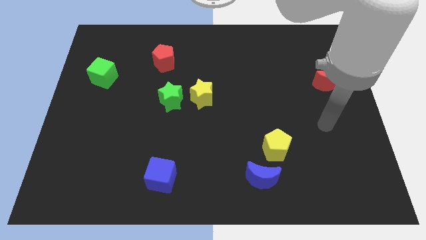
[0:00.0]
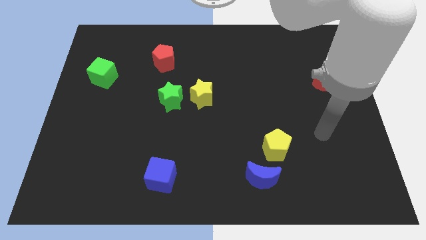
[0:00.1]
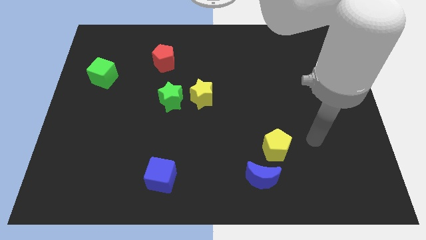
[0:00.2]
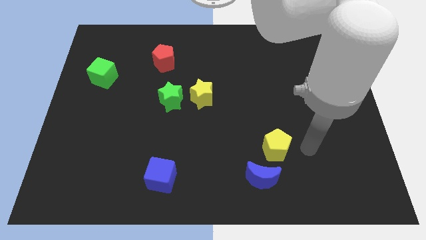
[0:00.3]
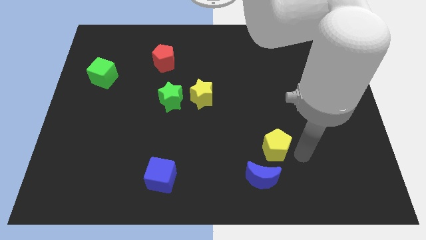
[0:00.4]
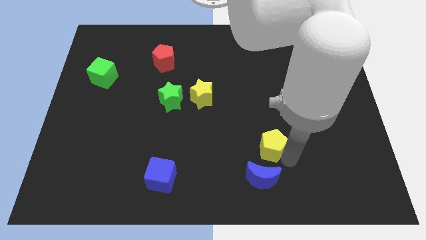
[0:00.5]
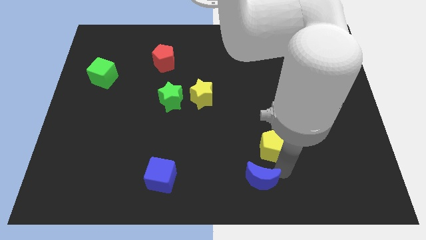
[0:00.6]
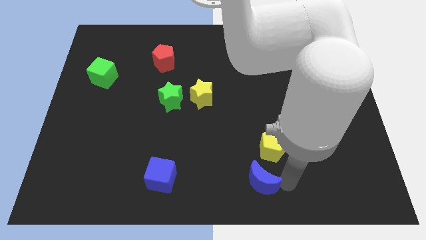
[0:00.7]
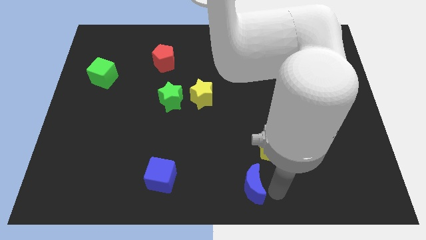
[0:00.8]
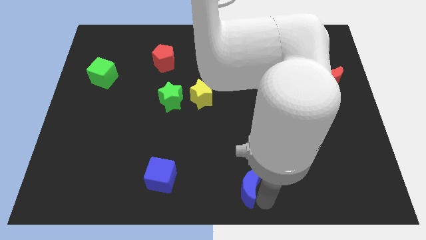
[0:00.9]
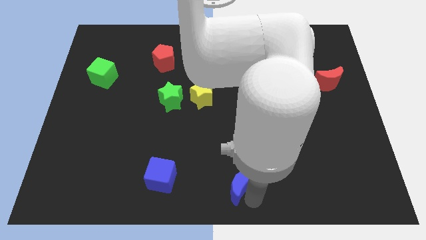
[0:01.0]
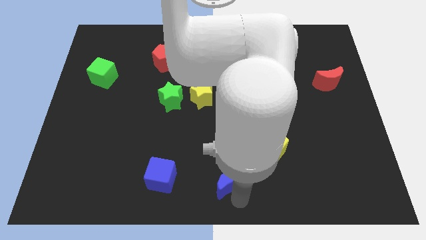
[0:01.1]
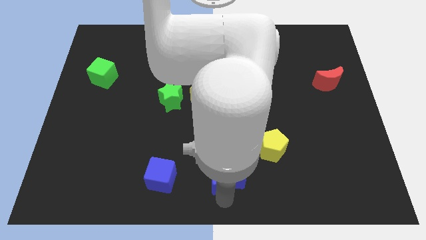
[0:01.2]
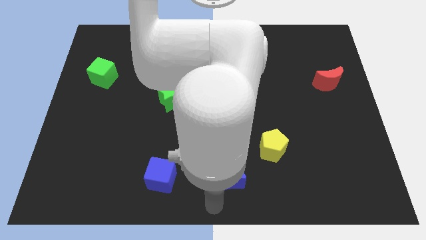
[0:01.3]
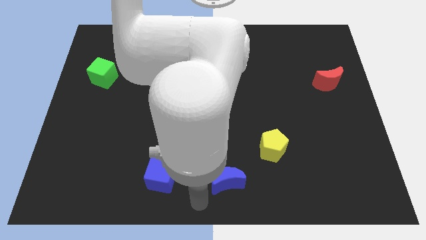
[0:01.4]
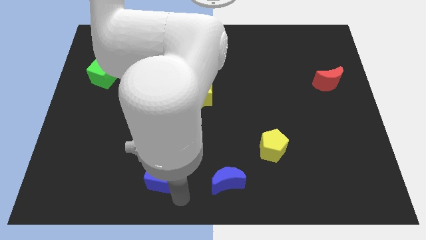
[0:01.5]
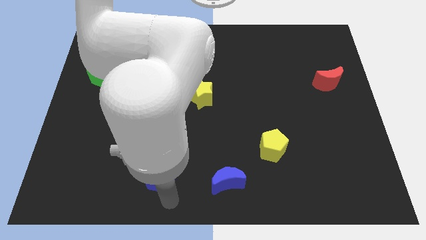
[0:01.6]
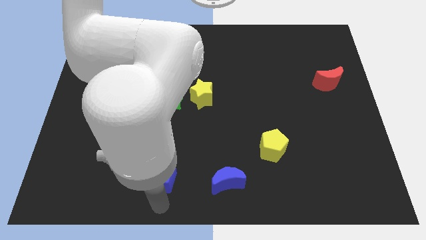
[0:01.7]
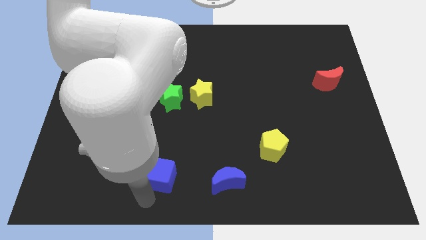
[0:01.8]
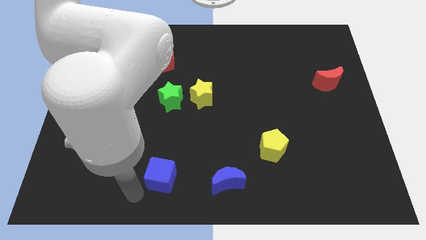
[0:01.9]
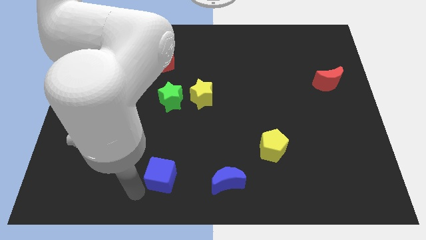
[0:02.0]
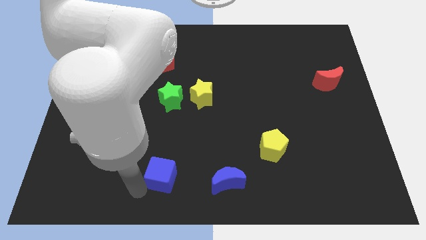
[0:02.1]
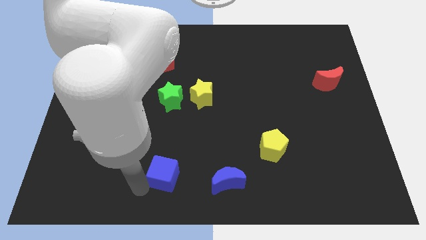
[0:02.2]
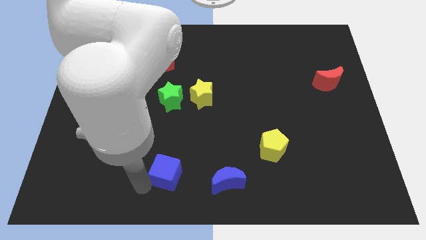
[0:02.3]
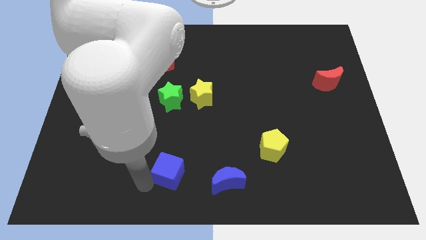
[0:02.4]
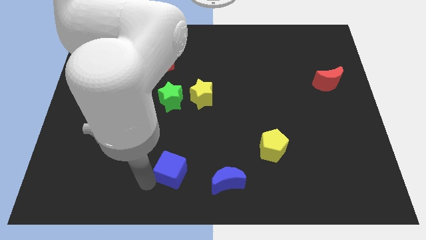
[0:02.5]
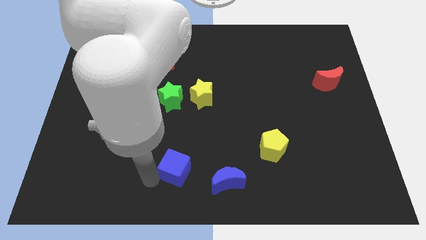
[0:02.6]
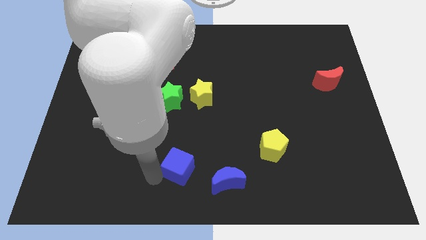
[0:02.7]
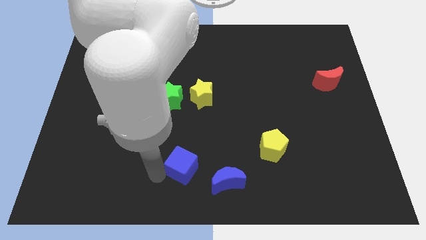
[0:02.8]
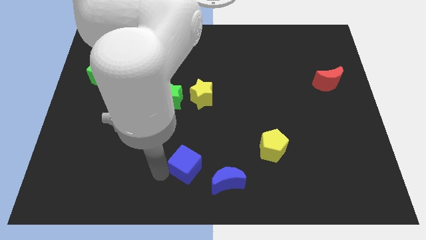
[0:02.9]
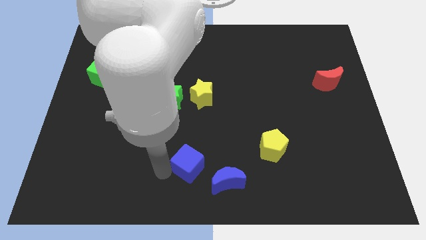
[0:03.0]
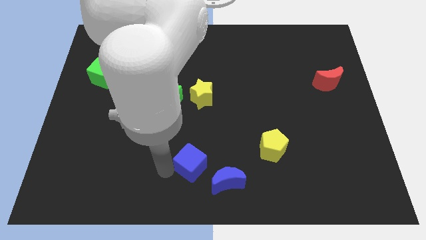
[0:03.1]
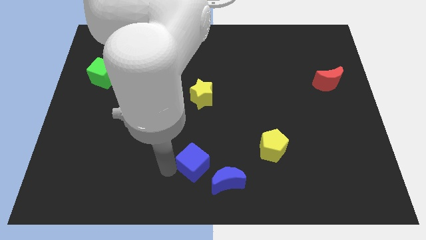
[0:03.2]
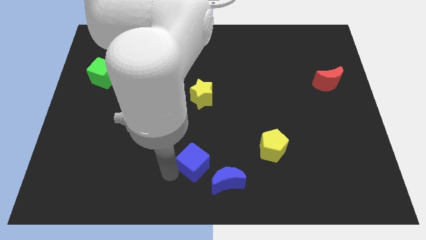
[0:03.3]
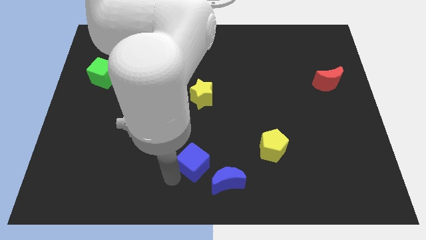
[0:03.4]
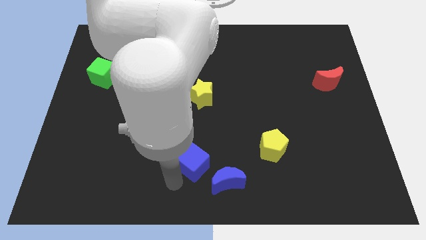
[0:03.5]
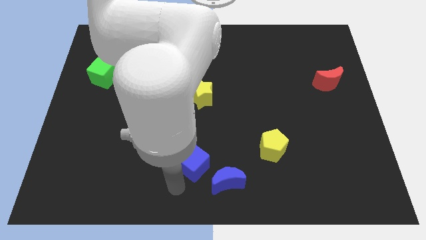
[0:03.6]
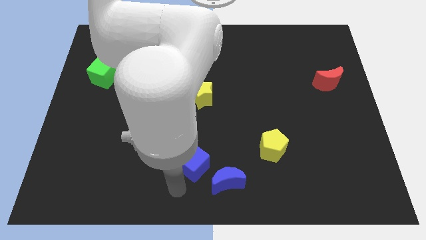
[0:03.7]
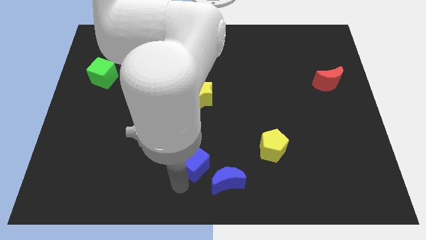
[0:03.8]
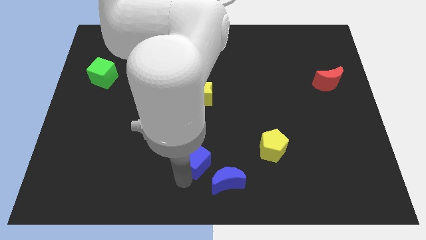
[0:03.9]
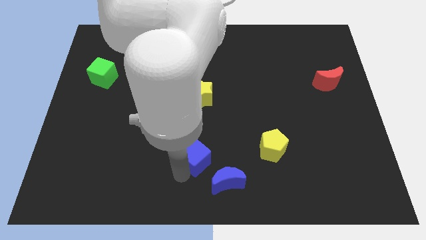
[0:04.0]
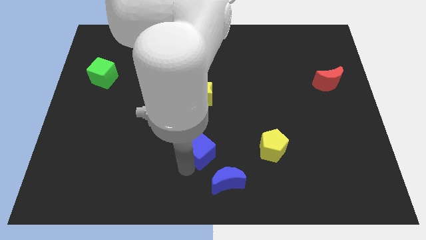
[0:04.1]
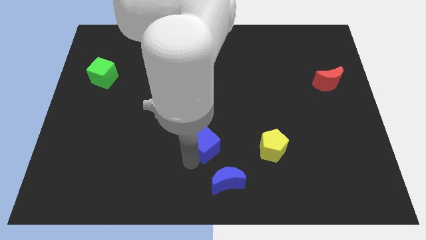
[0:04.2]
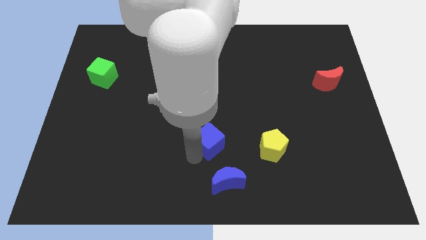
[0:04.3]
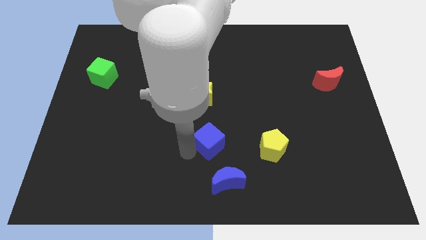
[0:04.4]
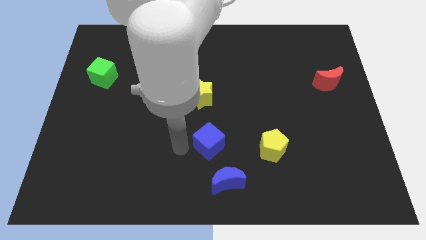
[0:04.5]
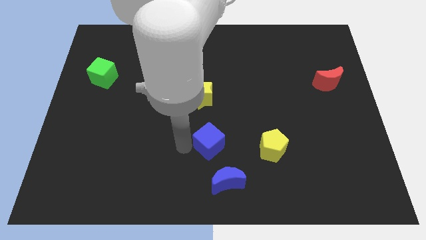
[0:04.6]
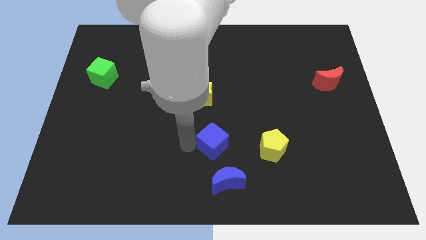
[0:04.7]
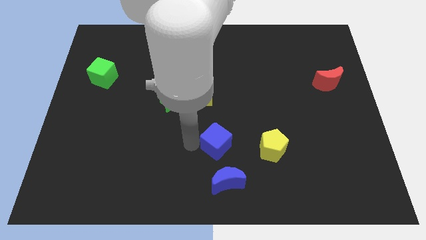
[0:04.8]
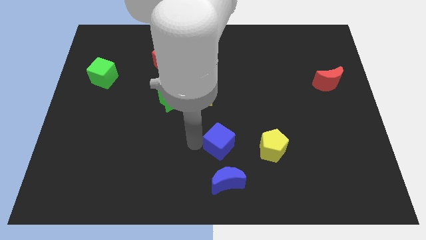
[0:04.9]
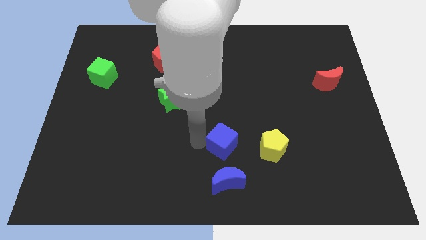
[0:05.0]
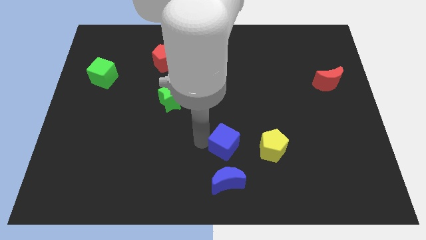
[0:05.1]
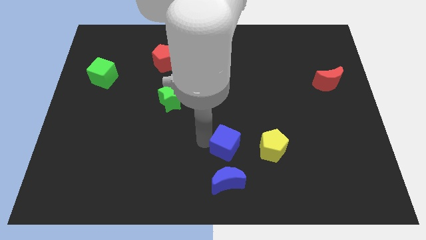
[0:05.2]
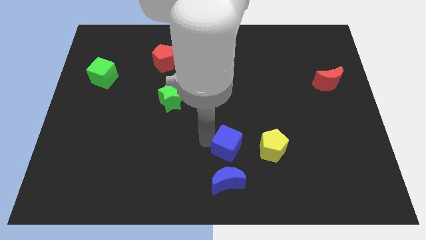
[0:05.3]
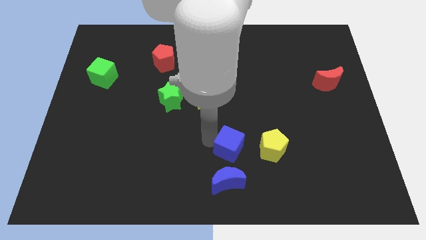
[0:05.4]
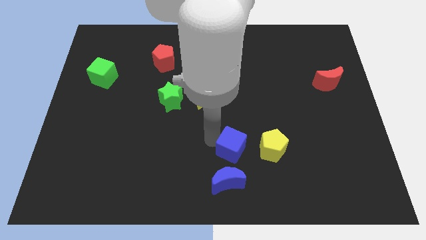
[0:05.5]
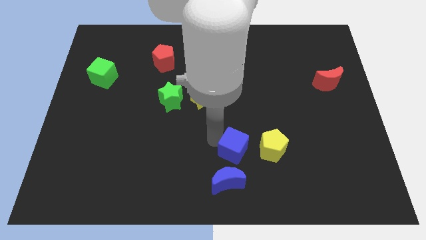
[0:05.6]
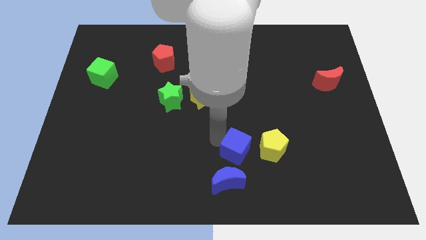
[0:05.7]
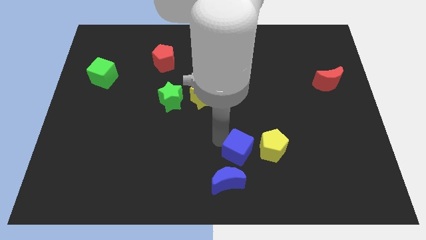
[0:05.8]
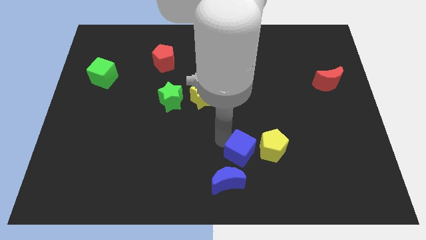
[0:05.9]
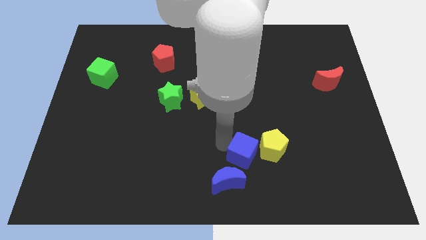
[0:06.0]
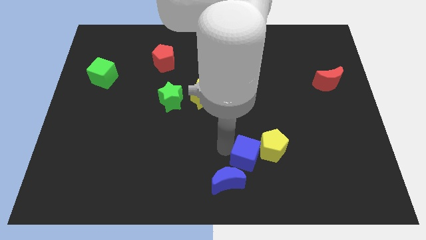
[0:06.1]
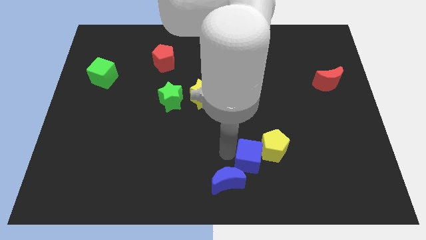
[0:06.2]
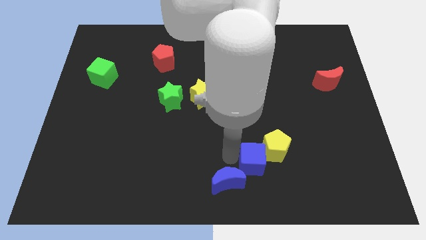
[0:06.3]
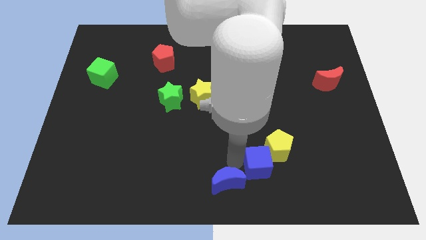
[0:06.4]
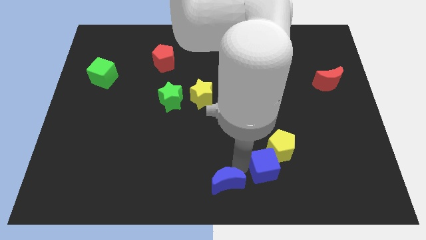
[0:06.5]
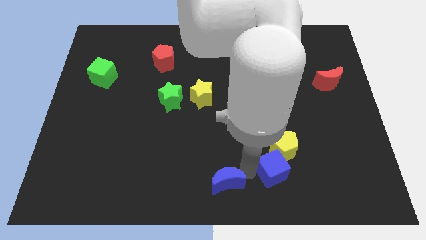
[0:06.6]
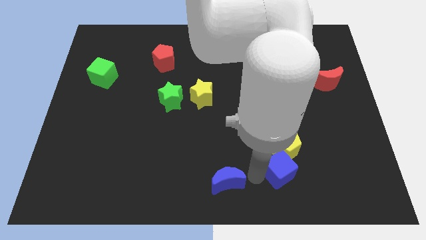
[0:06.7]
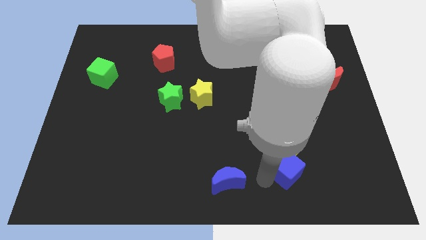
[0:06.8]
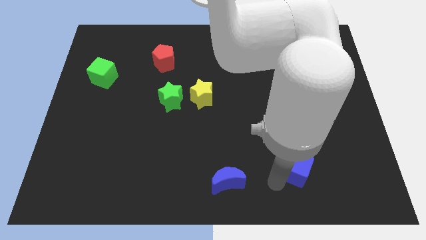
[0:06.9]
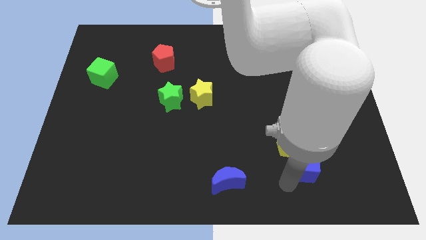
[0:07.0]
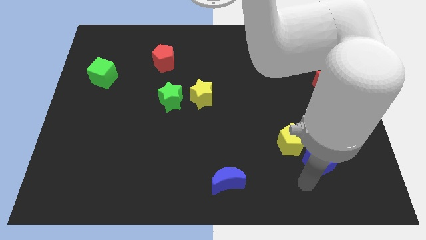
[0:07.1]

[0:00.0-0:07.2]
slide the blue cube right of the yellow pentagon

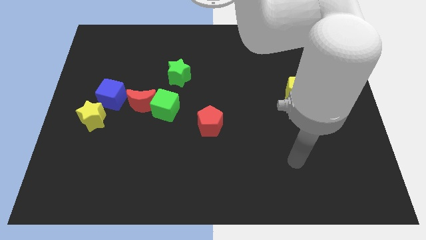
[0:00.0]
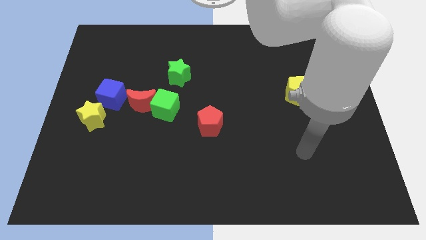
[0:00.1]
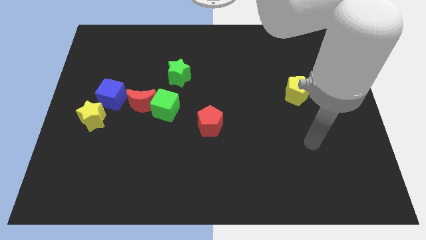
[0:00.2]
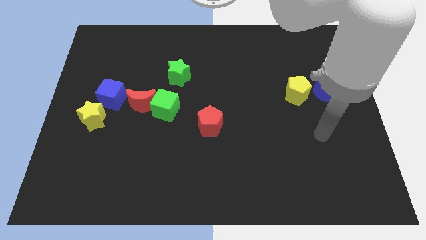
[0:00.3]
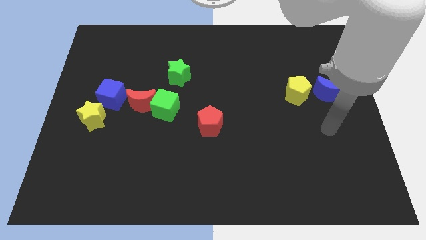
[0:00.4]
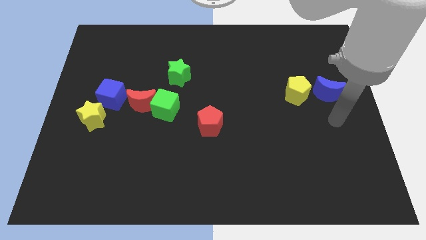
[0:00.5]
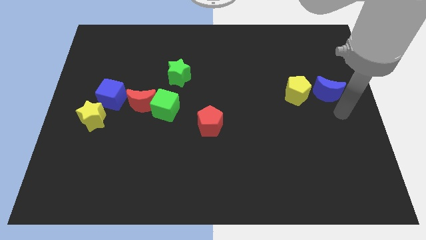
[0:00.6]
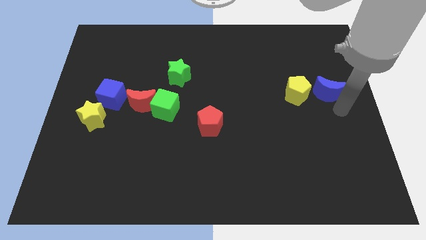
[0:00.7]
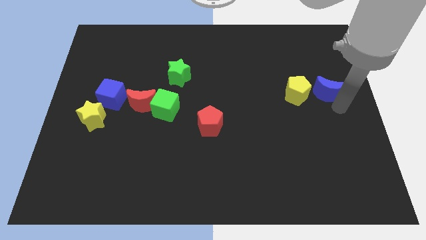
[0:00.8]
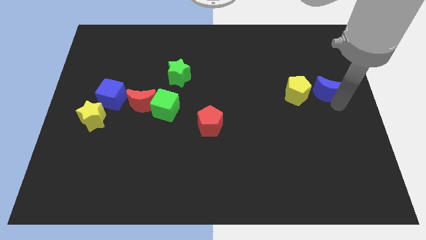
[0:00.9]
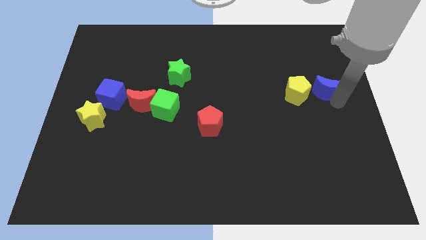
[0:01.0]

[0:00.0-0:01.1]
slide the blue moon to the top right side of the yellow pentagon
